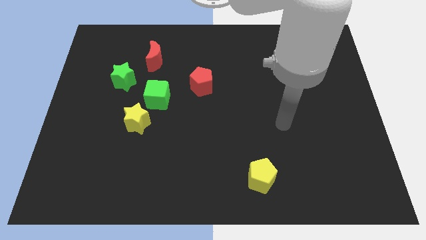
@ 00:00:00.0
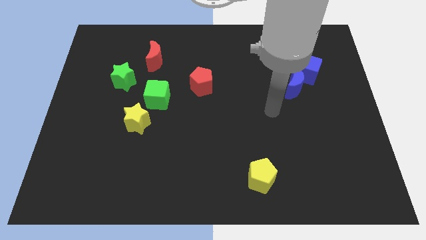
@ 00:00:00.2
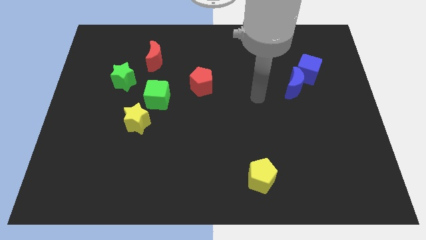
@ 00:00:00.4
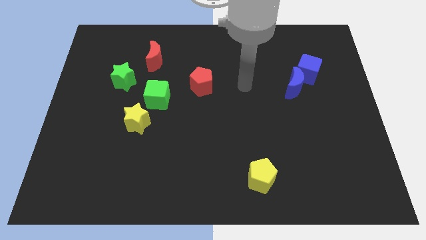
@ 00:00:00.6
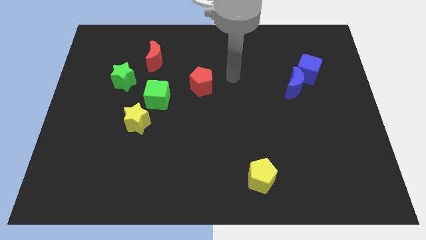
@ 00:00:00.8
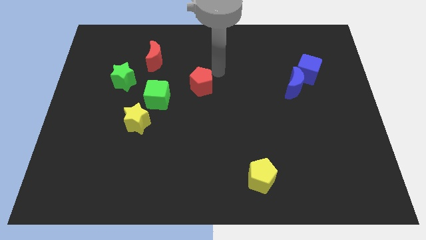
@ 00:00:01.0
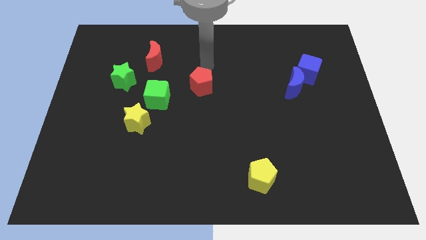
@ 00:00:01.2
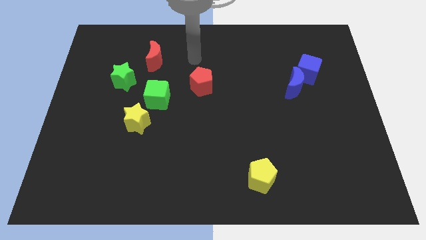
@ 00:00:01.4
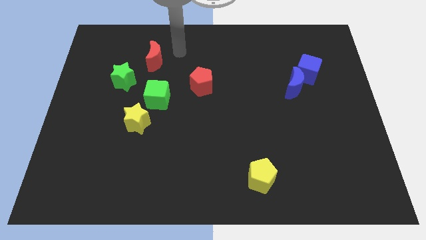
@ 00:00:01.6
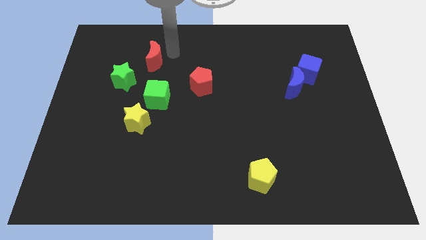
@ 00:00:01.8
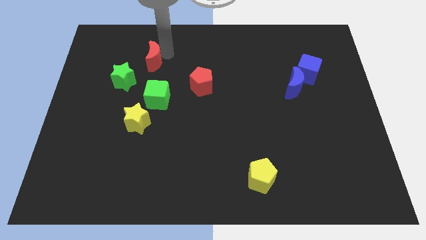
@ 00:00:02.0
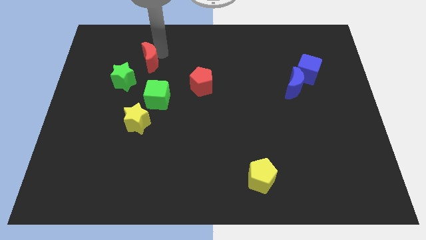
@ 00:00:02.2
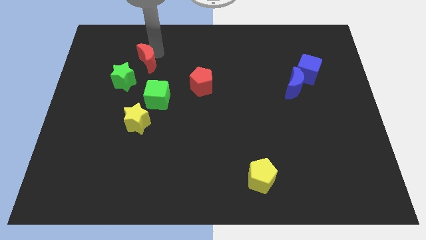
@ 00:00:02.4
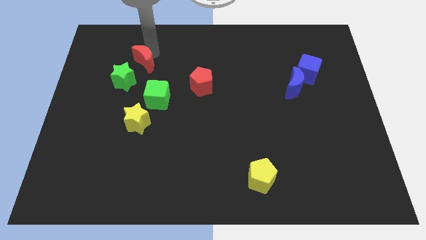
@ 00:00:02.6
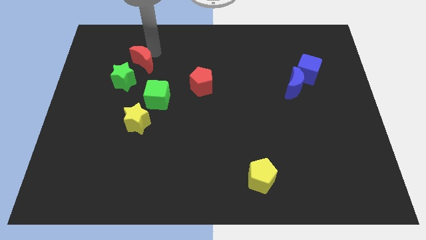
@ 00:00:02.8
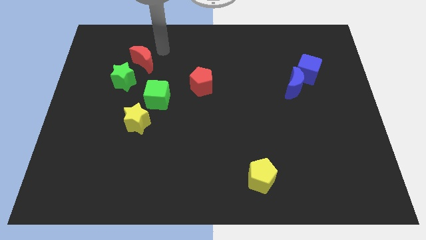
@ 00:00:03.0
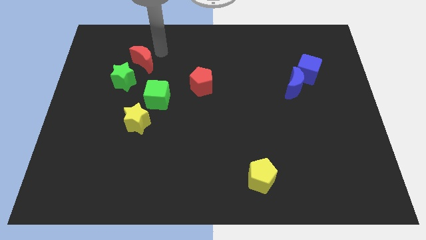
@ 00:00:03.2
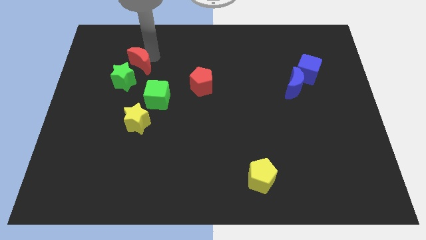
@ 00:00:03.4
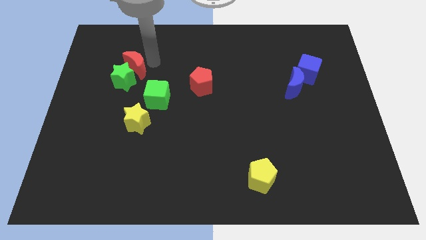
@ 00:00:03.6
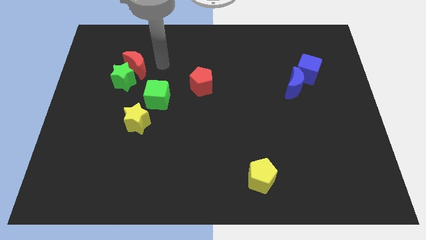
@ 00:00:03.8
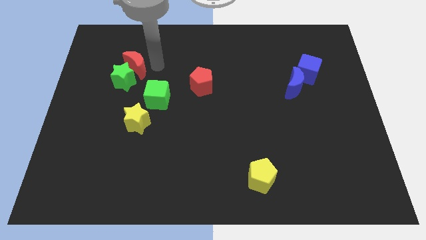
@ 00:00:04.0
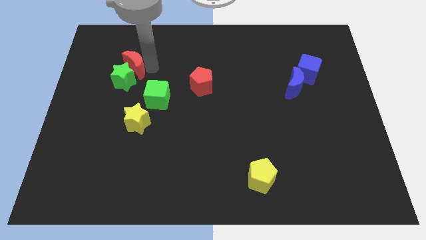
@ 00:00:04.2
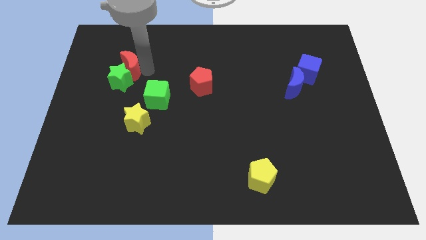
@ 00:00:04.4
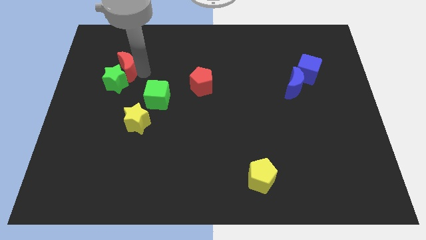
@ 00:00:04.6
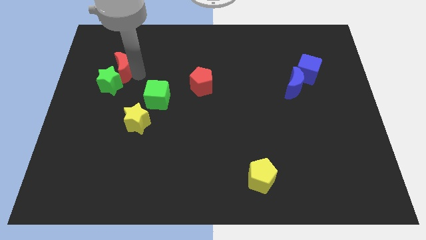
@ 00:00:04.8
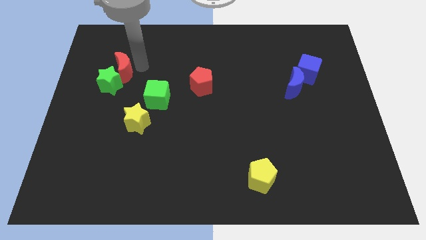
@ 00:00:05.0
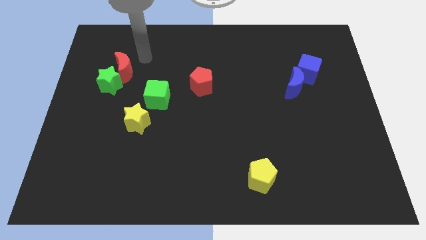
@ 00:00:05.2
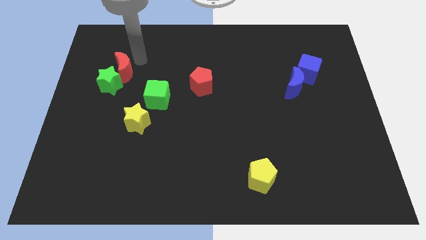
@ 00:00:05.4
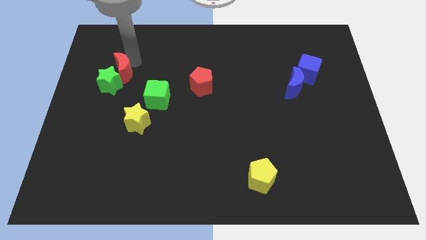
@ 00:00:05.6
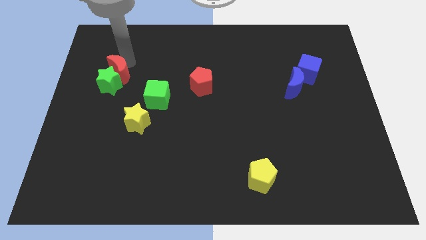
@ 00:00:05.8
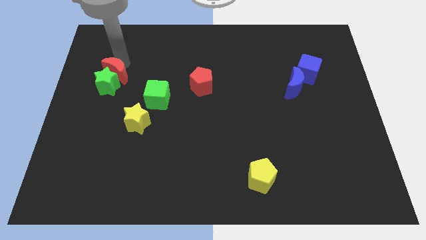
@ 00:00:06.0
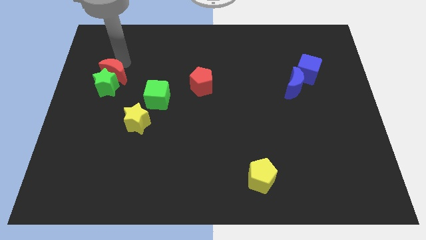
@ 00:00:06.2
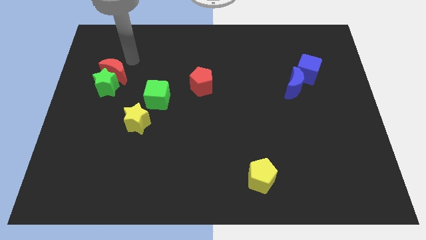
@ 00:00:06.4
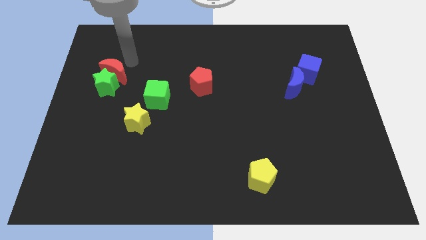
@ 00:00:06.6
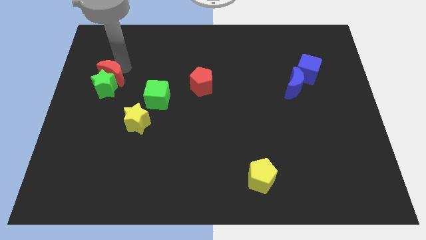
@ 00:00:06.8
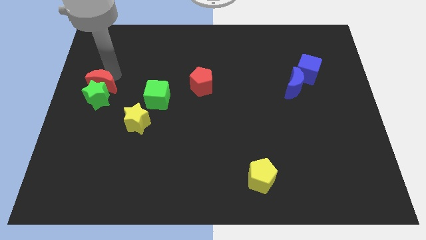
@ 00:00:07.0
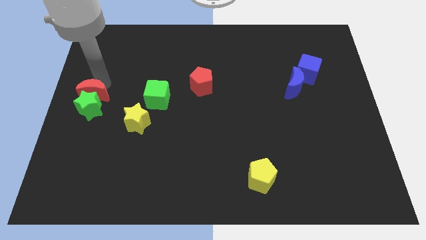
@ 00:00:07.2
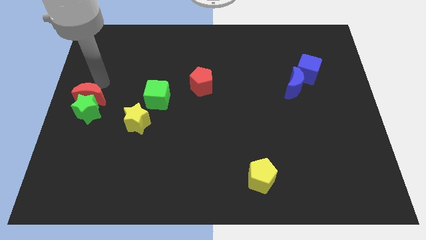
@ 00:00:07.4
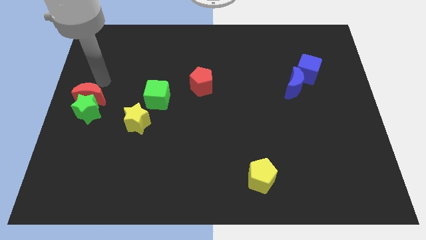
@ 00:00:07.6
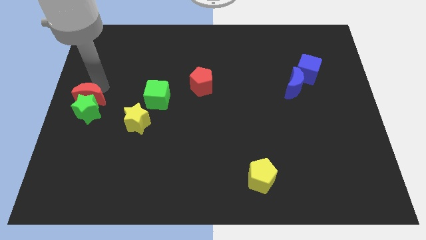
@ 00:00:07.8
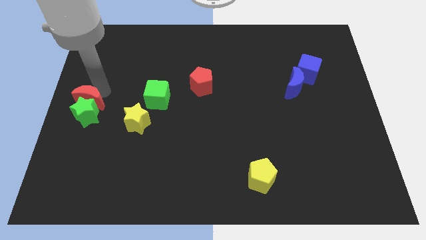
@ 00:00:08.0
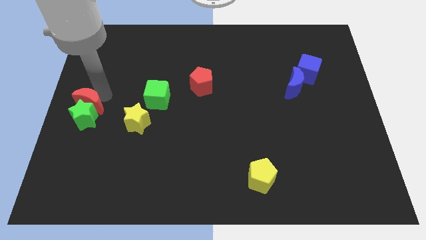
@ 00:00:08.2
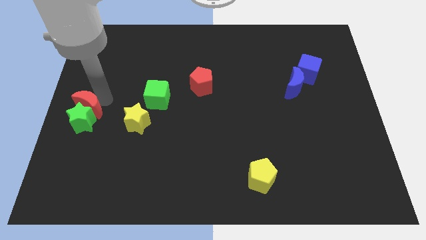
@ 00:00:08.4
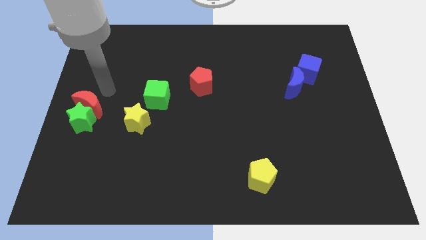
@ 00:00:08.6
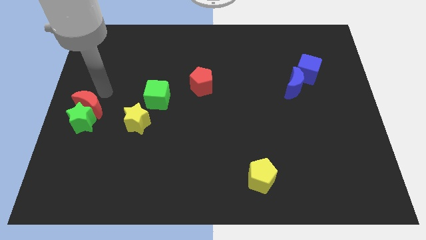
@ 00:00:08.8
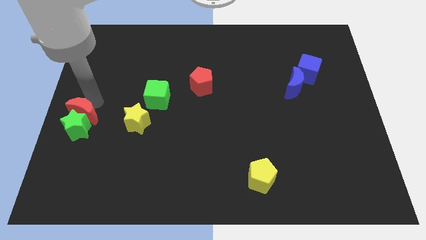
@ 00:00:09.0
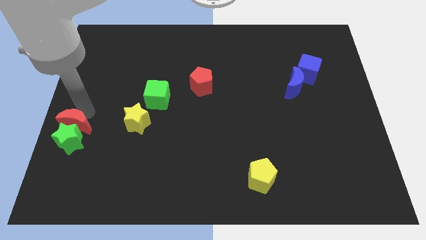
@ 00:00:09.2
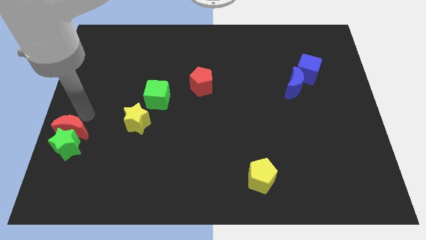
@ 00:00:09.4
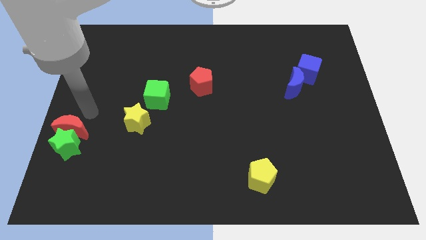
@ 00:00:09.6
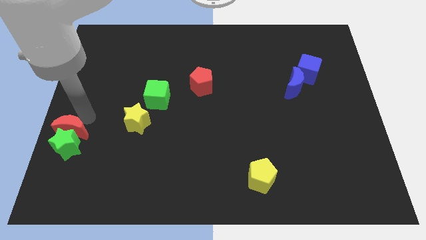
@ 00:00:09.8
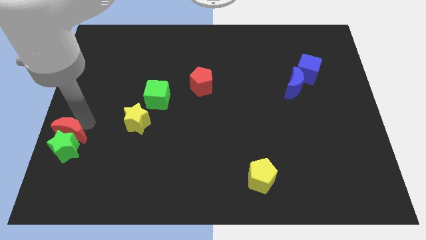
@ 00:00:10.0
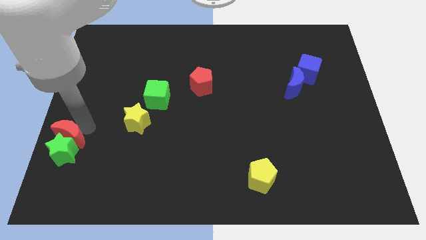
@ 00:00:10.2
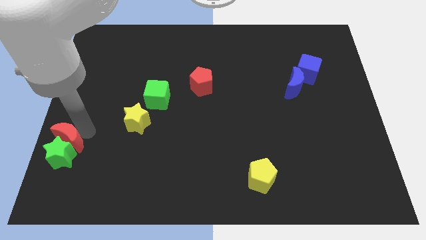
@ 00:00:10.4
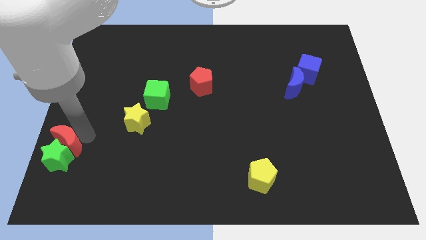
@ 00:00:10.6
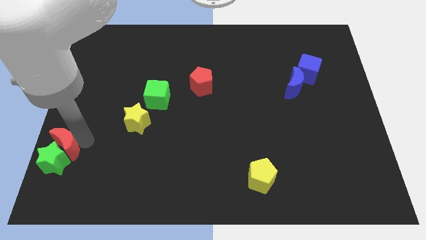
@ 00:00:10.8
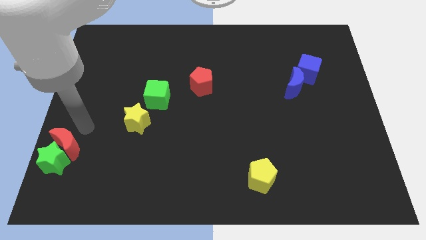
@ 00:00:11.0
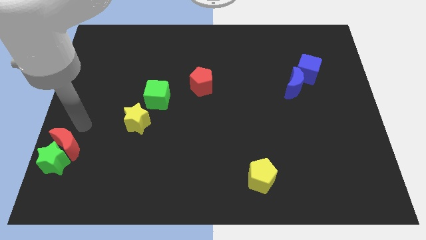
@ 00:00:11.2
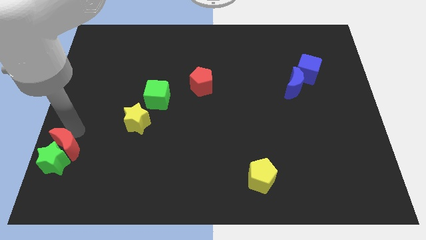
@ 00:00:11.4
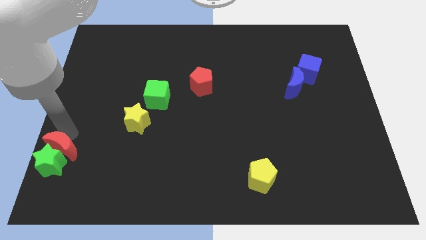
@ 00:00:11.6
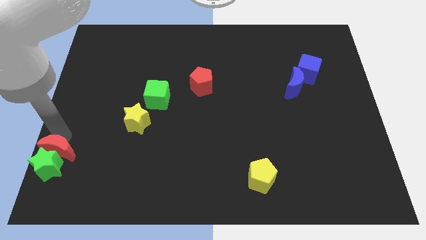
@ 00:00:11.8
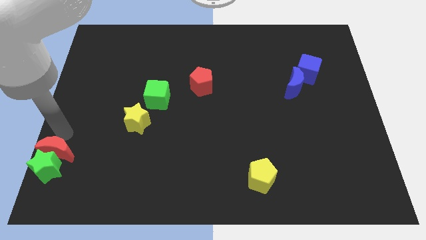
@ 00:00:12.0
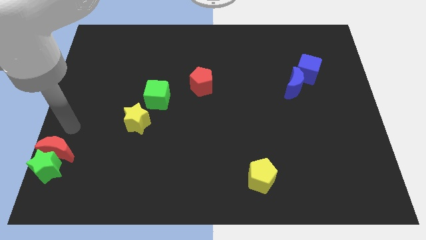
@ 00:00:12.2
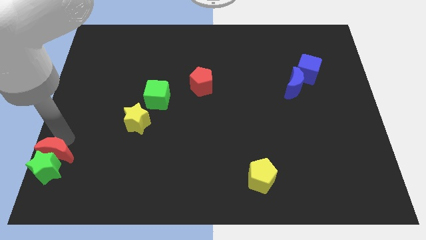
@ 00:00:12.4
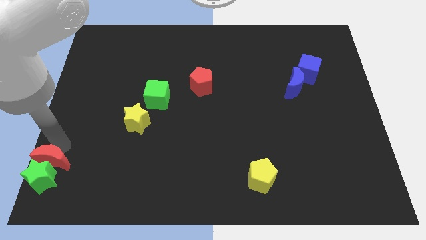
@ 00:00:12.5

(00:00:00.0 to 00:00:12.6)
slide the red moon to the bottom left corner
